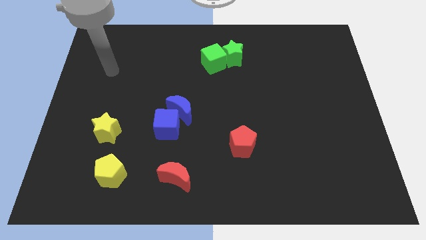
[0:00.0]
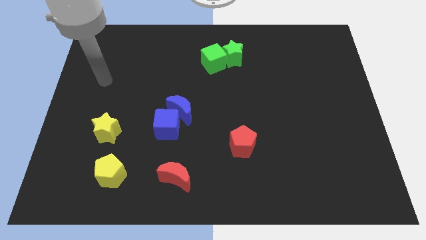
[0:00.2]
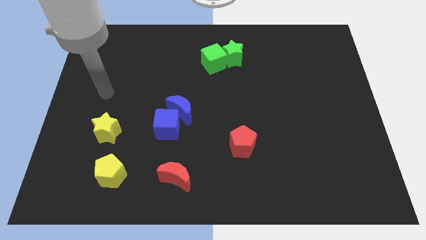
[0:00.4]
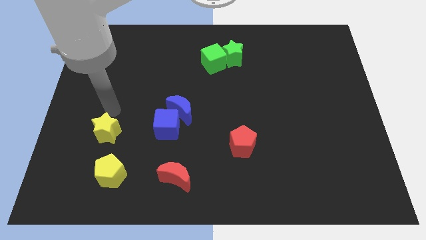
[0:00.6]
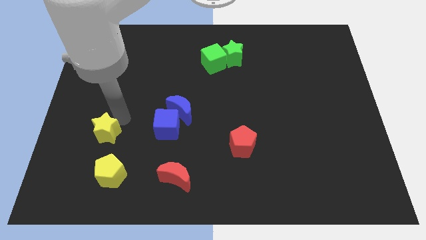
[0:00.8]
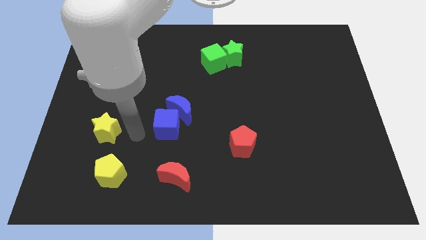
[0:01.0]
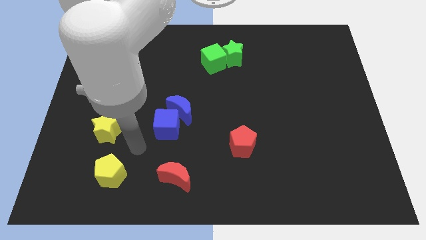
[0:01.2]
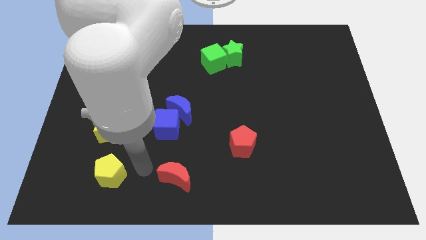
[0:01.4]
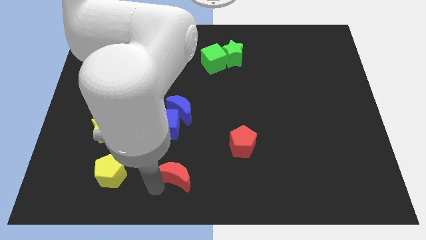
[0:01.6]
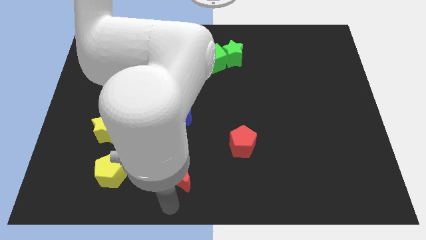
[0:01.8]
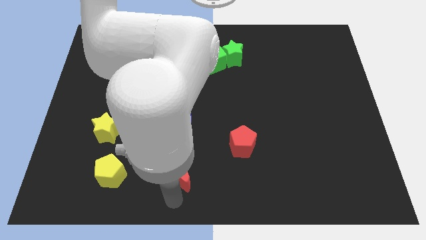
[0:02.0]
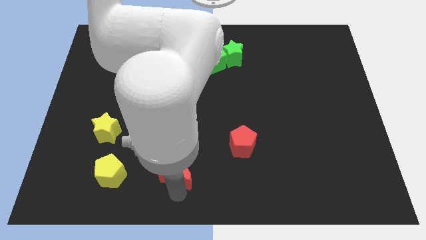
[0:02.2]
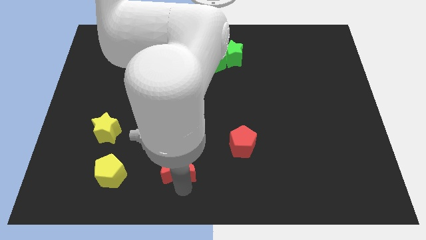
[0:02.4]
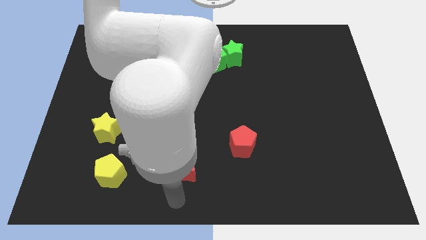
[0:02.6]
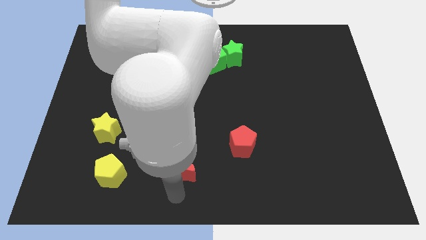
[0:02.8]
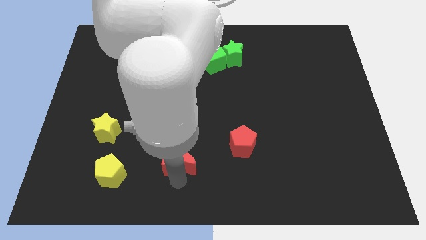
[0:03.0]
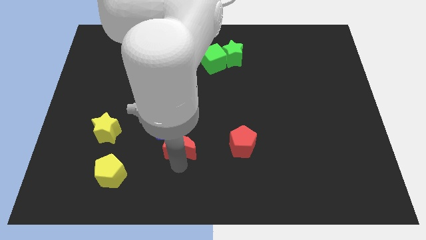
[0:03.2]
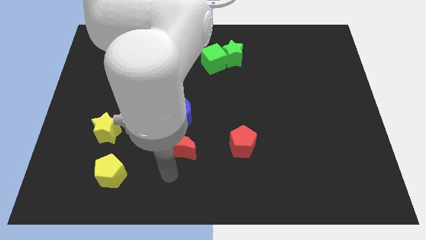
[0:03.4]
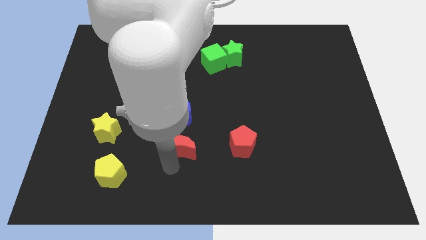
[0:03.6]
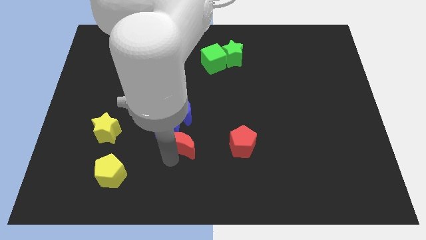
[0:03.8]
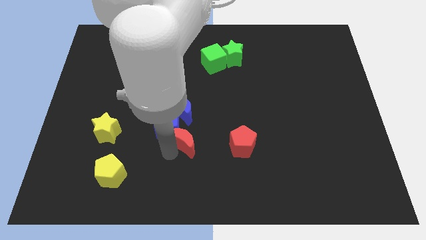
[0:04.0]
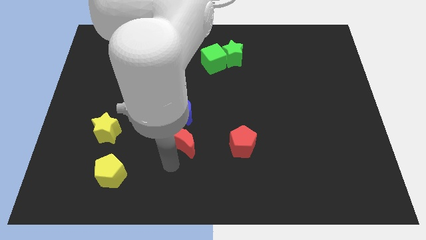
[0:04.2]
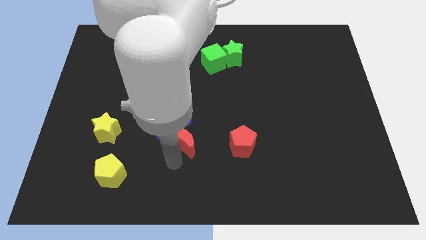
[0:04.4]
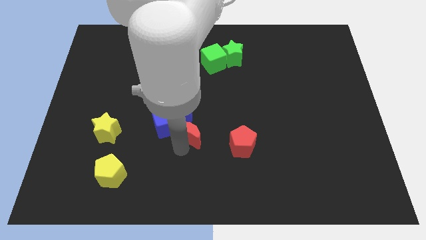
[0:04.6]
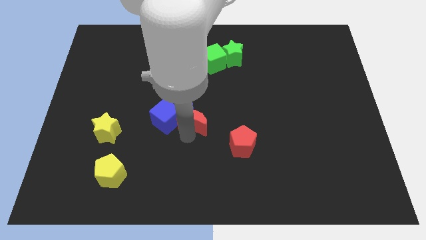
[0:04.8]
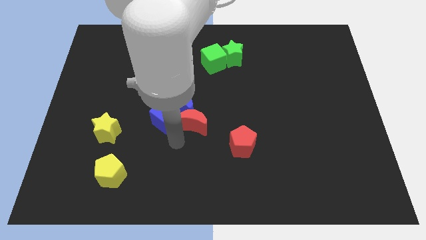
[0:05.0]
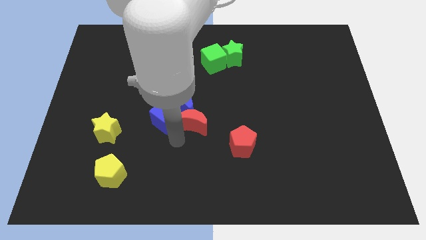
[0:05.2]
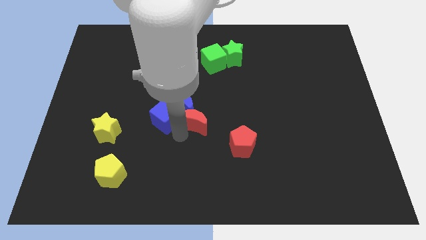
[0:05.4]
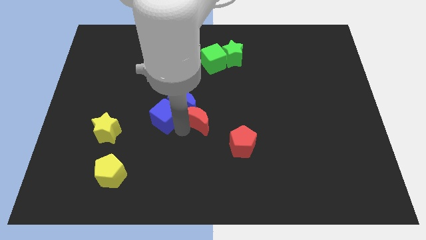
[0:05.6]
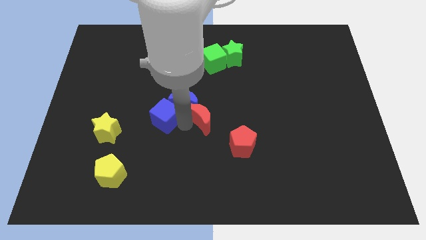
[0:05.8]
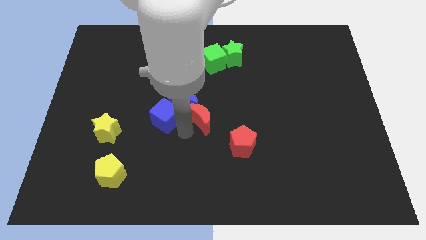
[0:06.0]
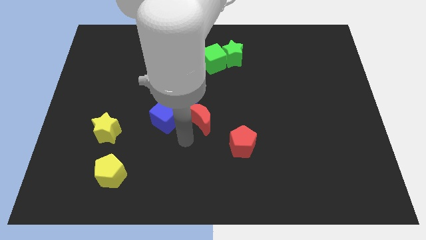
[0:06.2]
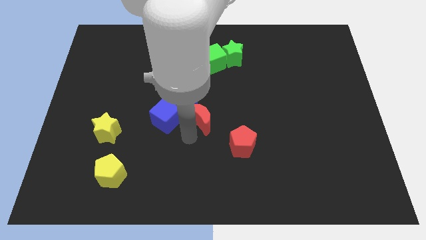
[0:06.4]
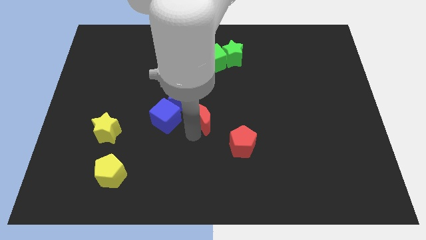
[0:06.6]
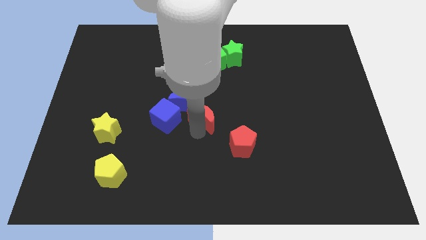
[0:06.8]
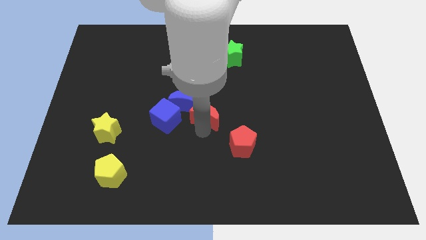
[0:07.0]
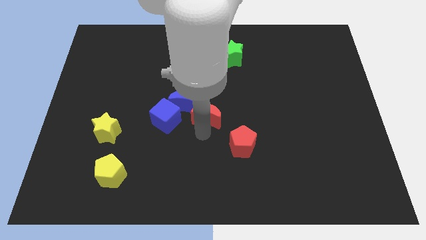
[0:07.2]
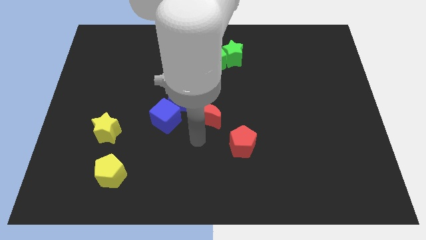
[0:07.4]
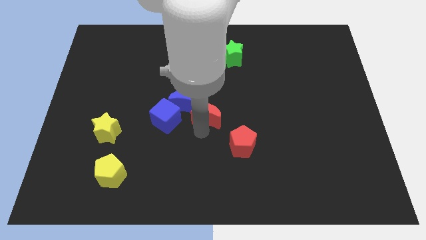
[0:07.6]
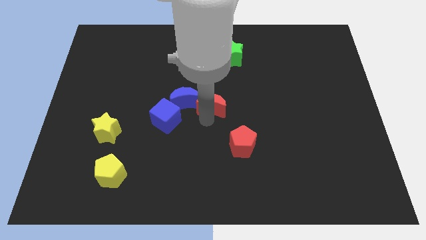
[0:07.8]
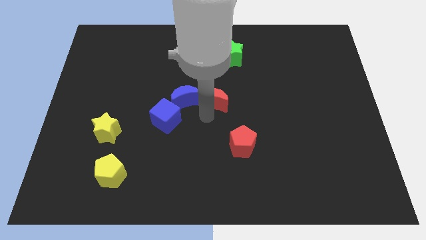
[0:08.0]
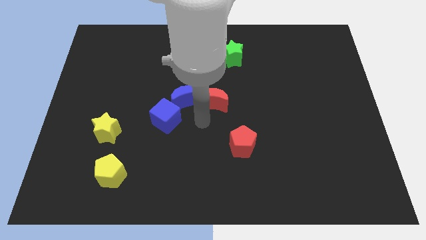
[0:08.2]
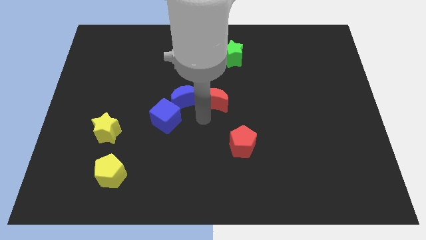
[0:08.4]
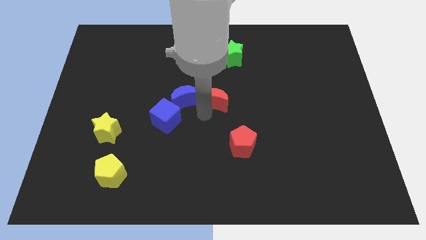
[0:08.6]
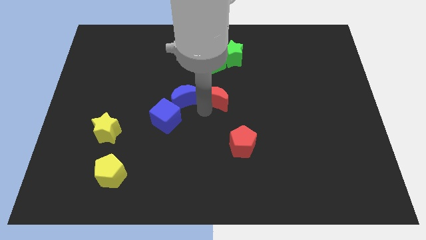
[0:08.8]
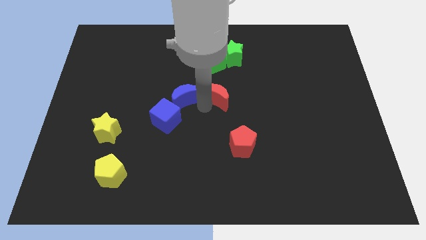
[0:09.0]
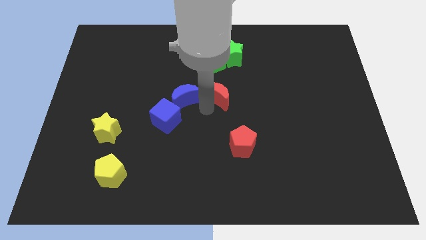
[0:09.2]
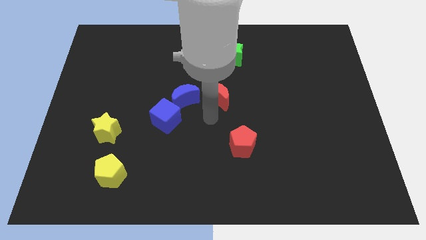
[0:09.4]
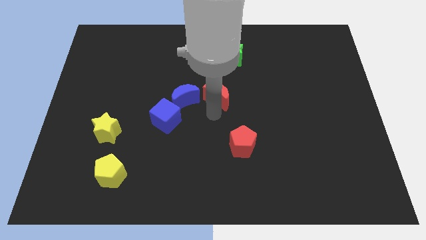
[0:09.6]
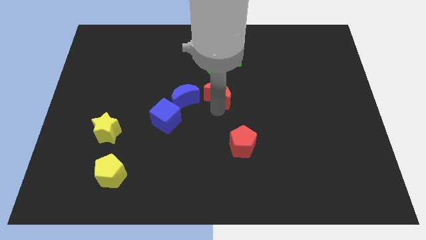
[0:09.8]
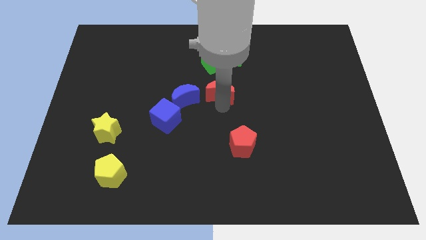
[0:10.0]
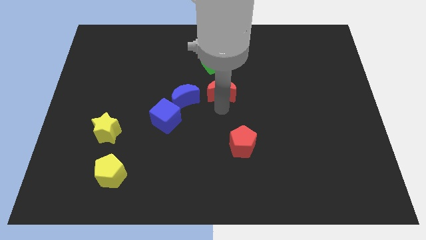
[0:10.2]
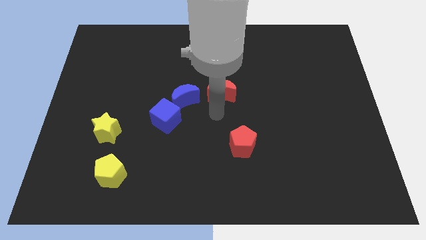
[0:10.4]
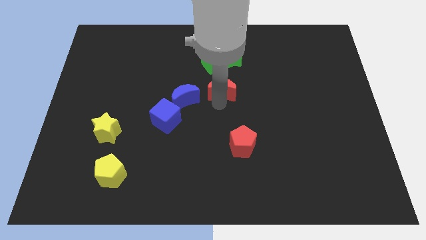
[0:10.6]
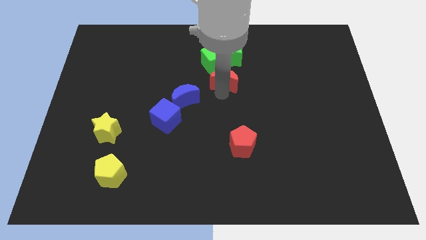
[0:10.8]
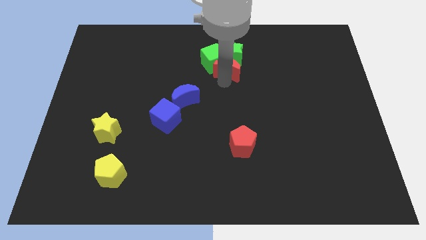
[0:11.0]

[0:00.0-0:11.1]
push the red moon to the green star

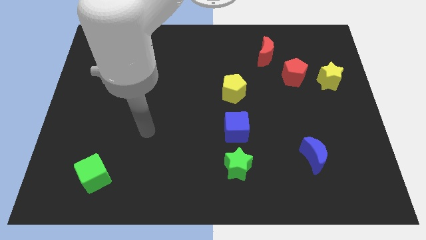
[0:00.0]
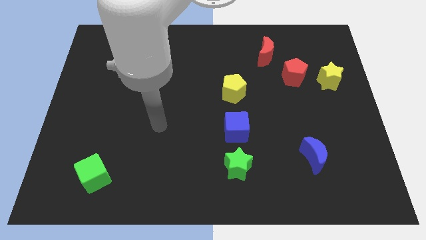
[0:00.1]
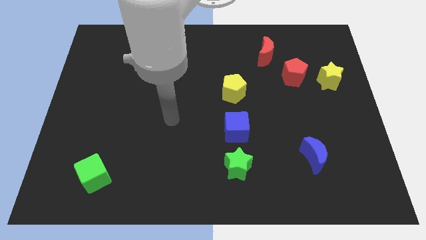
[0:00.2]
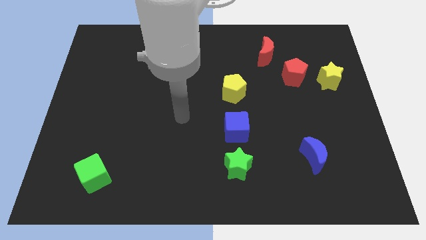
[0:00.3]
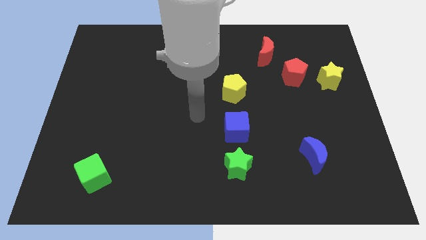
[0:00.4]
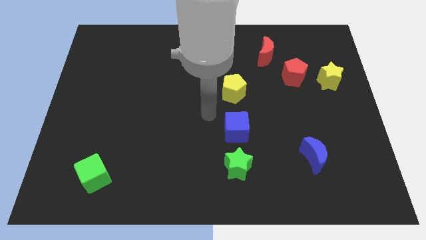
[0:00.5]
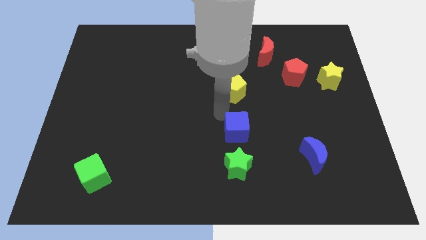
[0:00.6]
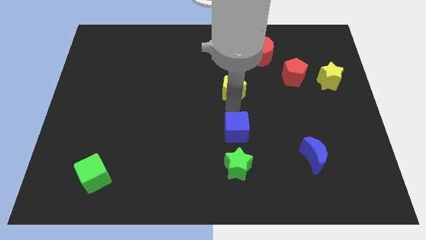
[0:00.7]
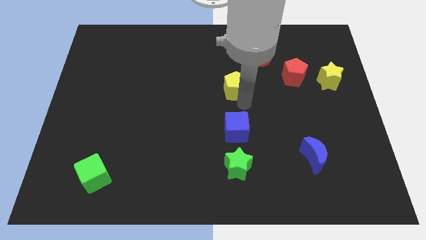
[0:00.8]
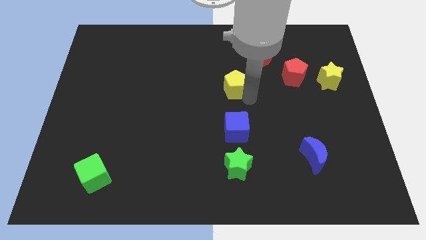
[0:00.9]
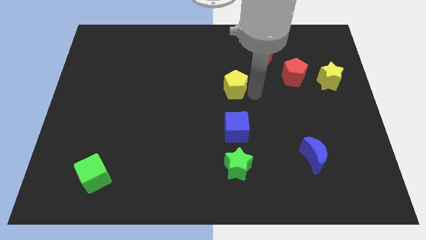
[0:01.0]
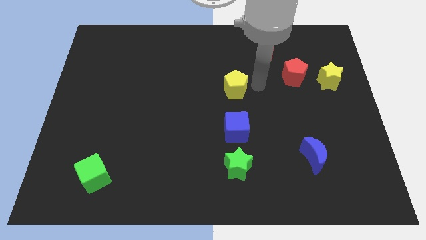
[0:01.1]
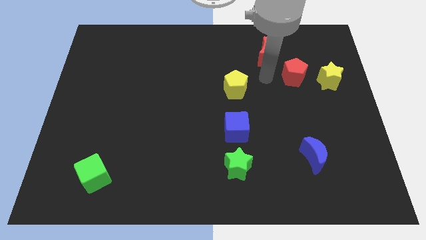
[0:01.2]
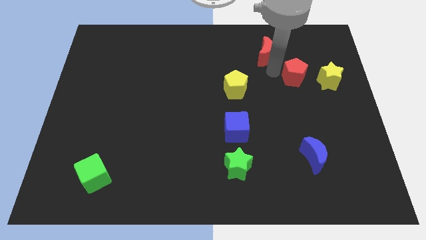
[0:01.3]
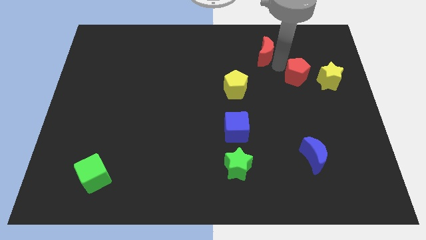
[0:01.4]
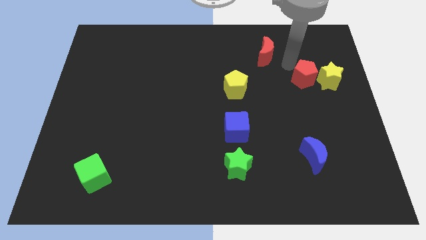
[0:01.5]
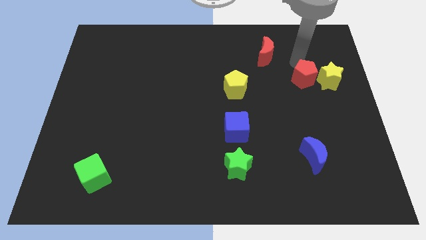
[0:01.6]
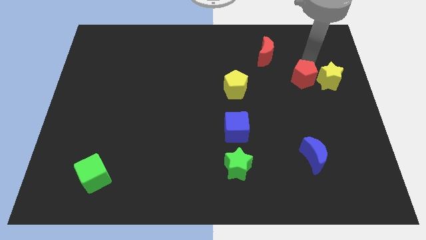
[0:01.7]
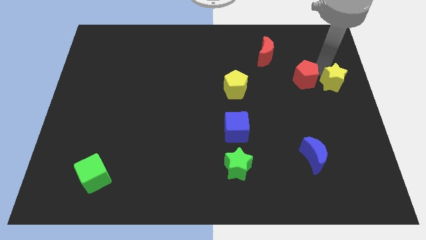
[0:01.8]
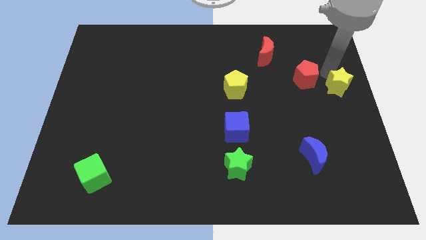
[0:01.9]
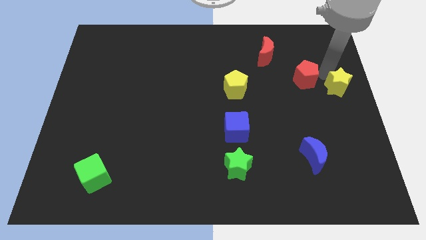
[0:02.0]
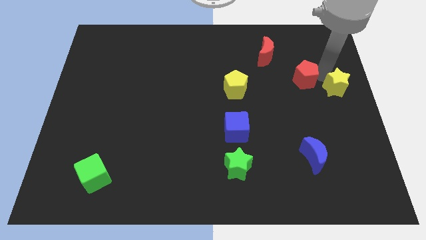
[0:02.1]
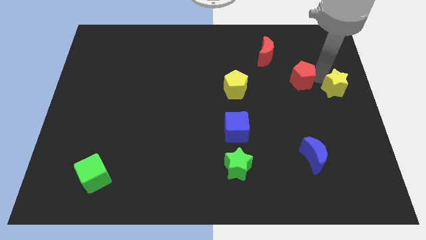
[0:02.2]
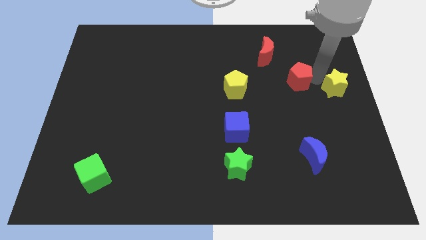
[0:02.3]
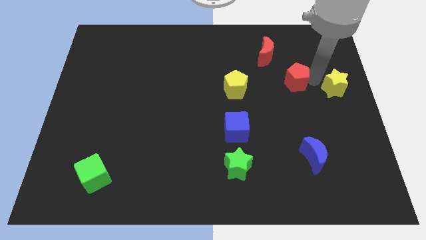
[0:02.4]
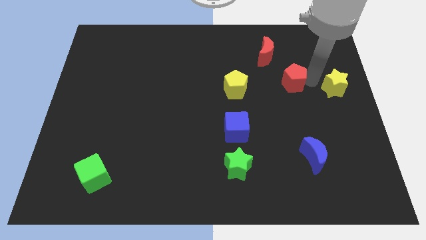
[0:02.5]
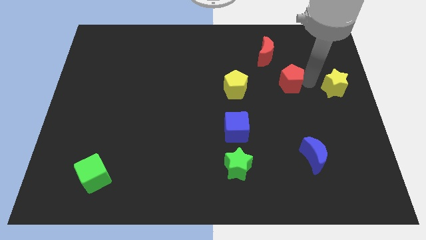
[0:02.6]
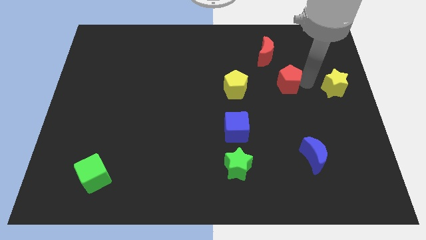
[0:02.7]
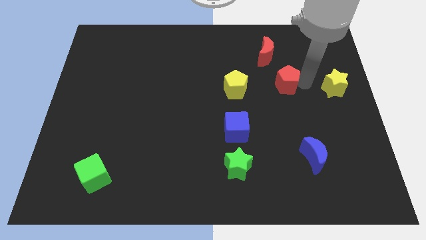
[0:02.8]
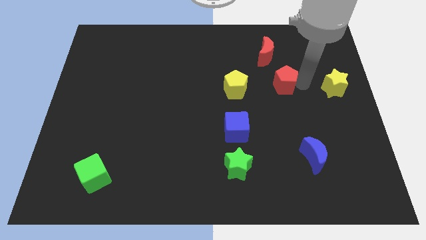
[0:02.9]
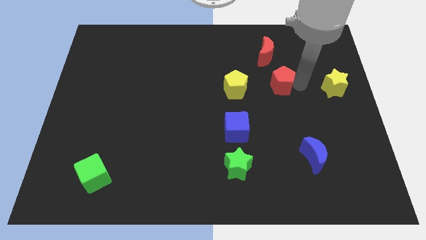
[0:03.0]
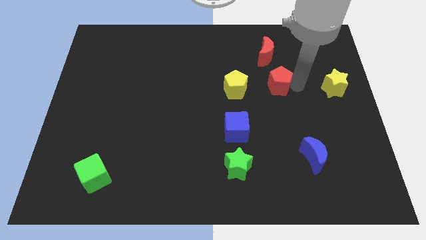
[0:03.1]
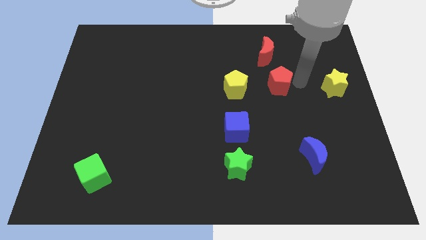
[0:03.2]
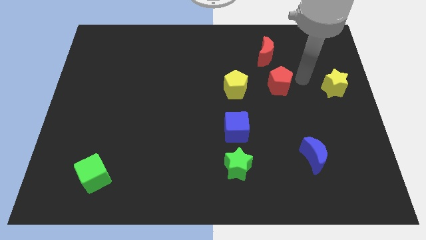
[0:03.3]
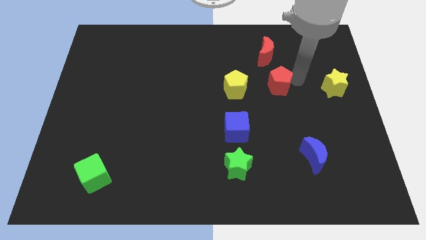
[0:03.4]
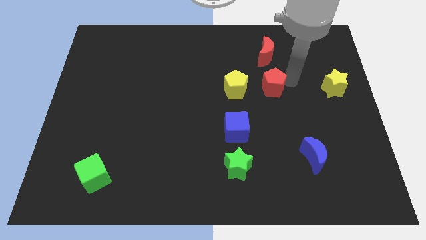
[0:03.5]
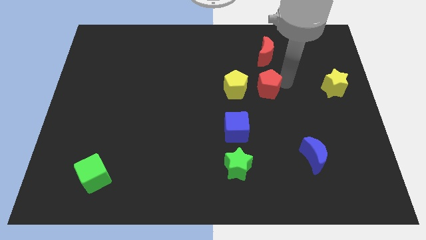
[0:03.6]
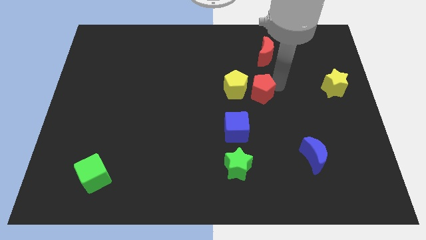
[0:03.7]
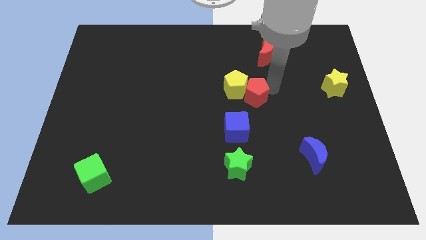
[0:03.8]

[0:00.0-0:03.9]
push the red pentagon next to the yellow pentagon
